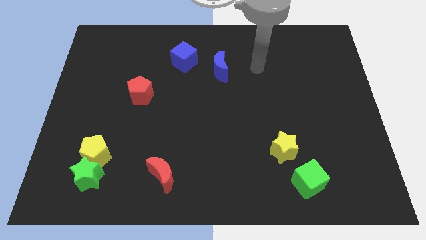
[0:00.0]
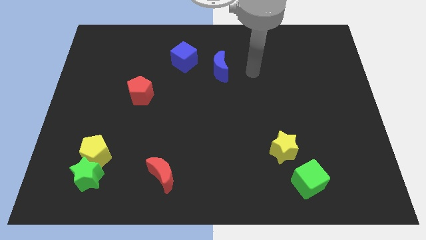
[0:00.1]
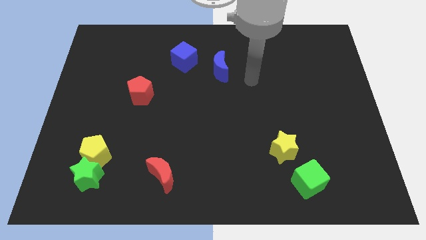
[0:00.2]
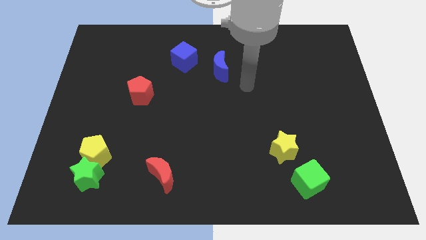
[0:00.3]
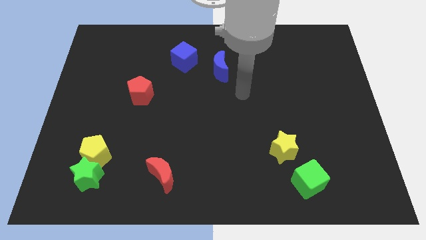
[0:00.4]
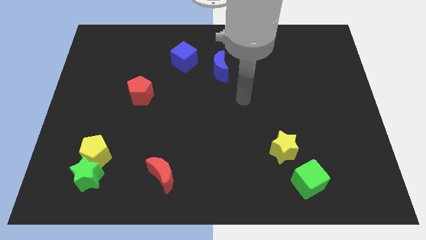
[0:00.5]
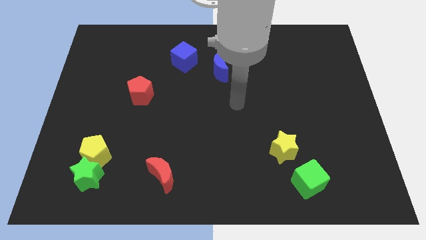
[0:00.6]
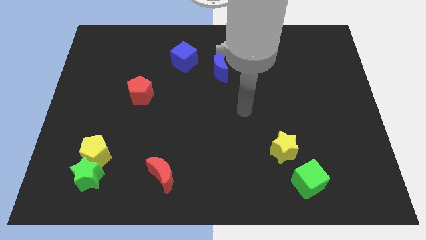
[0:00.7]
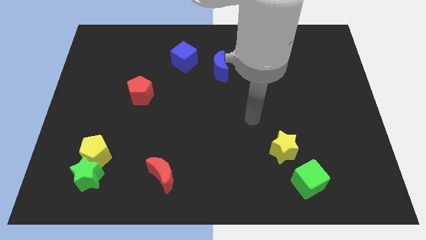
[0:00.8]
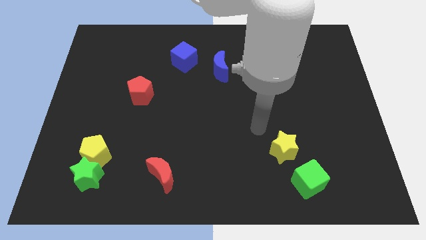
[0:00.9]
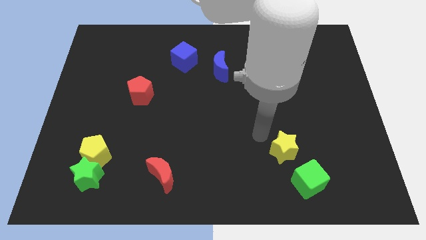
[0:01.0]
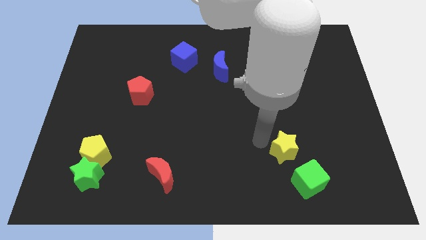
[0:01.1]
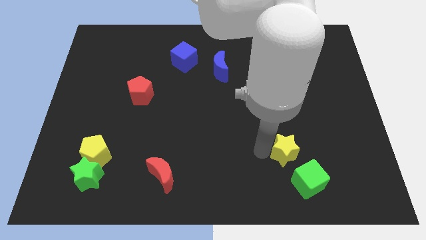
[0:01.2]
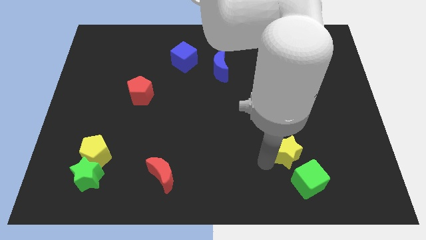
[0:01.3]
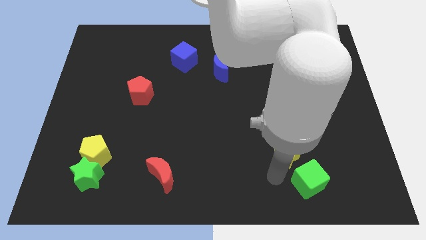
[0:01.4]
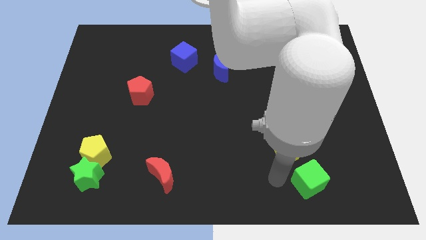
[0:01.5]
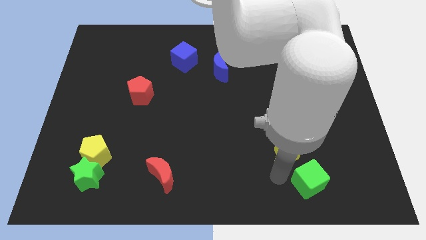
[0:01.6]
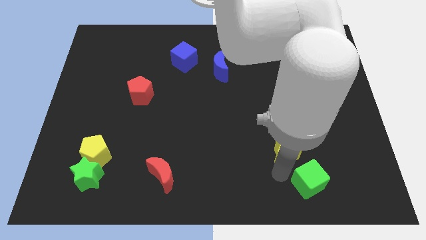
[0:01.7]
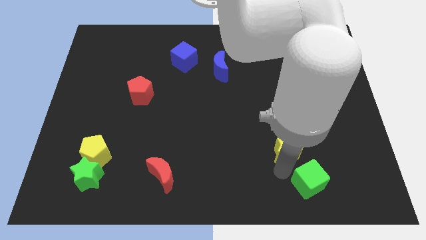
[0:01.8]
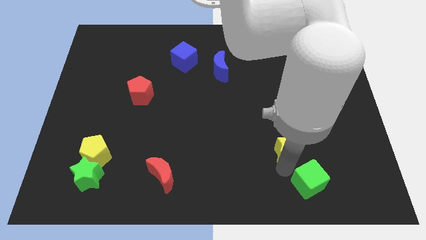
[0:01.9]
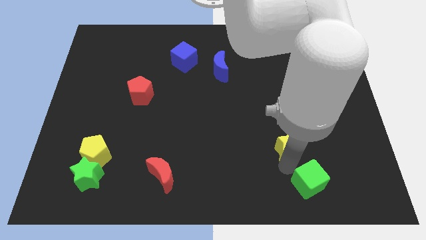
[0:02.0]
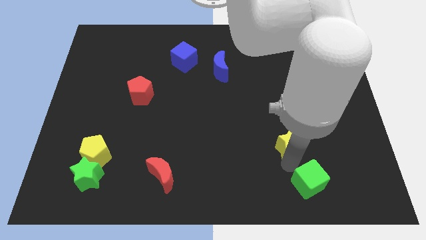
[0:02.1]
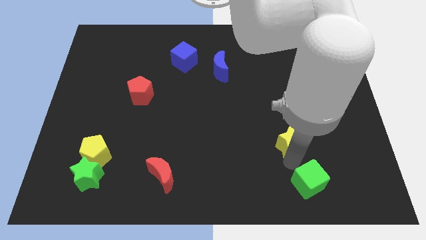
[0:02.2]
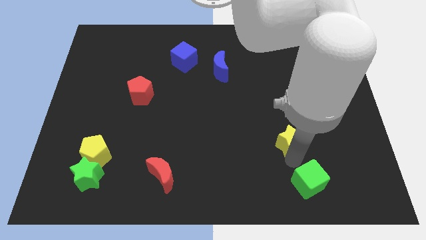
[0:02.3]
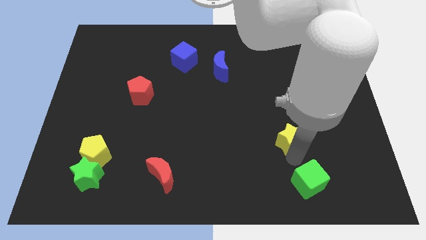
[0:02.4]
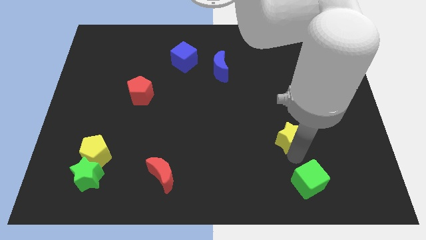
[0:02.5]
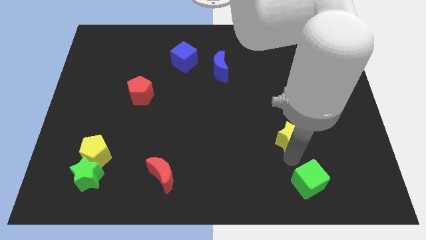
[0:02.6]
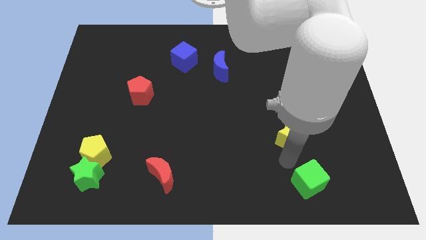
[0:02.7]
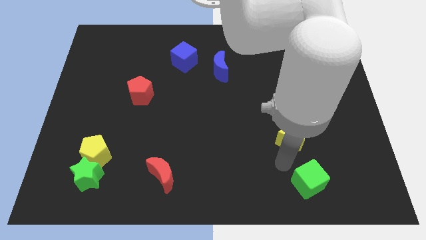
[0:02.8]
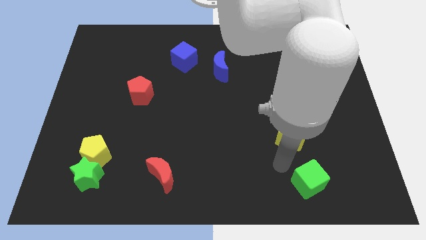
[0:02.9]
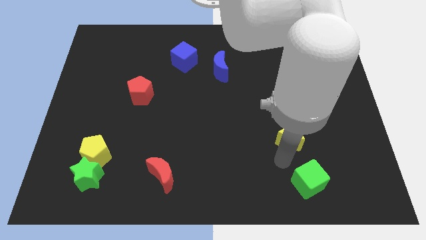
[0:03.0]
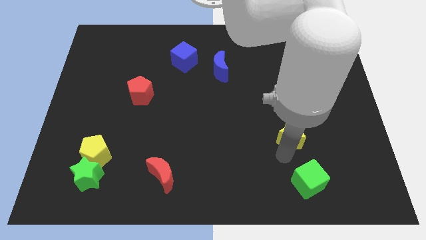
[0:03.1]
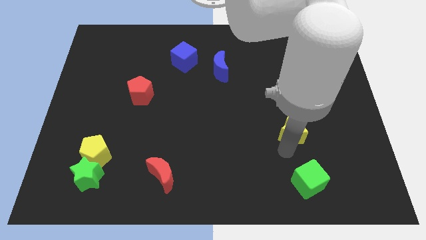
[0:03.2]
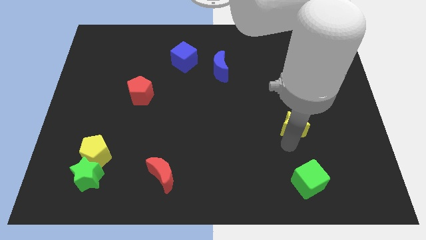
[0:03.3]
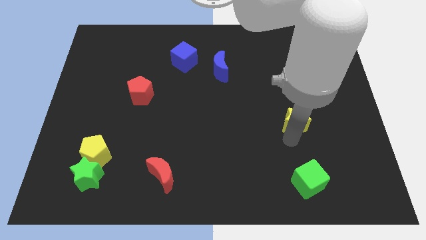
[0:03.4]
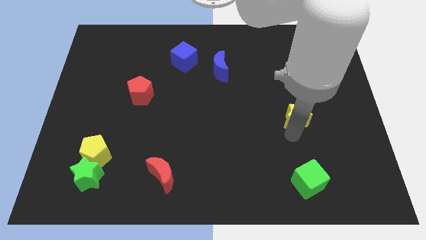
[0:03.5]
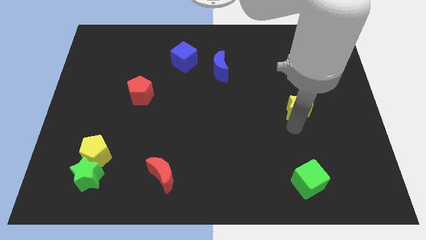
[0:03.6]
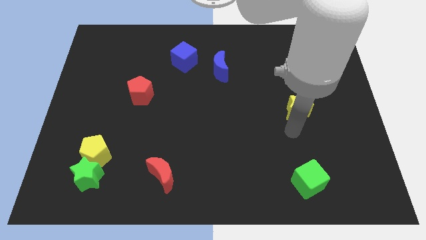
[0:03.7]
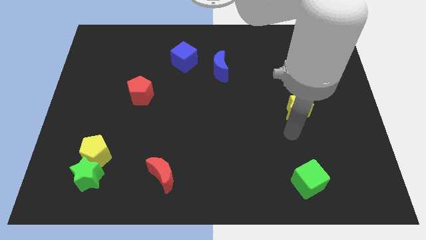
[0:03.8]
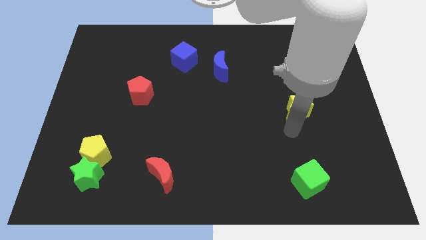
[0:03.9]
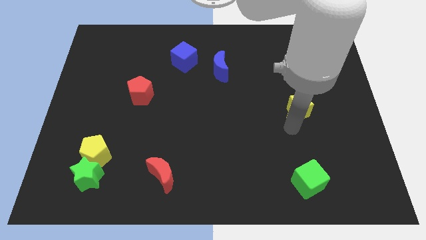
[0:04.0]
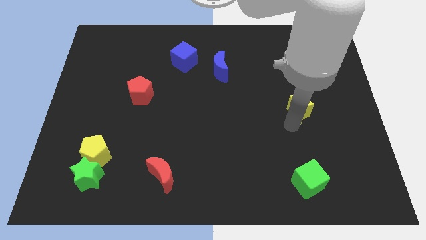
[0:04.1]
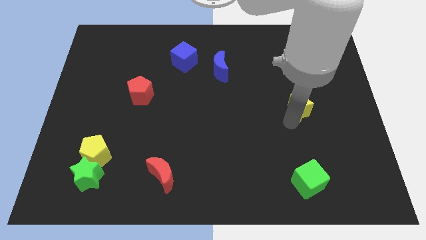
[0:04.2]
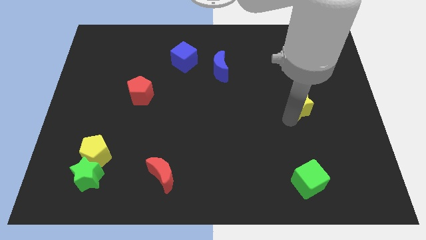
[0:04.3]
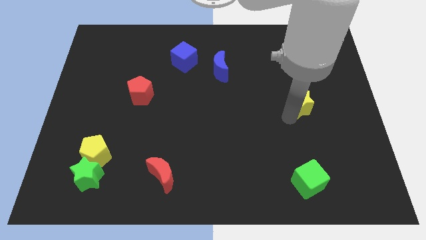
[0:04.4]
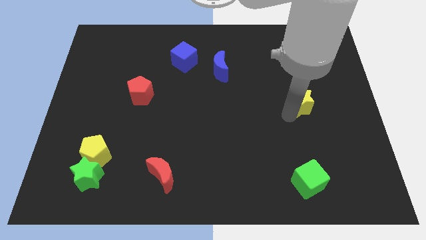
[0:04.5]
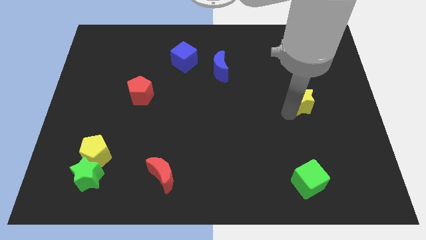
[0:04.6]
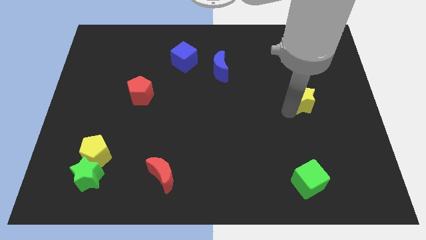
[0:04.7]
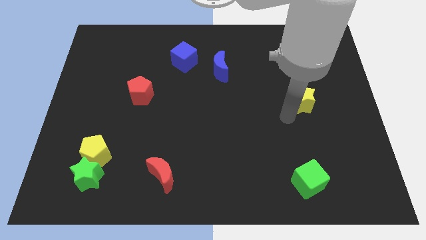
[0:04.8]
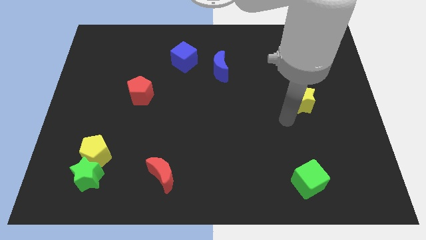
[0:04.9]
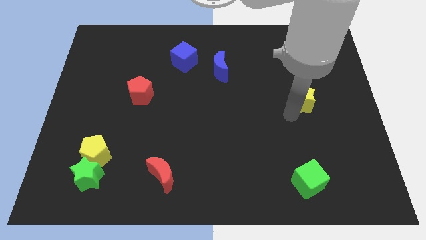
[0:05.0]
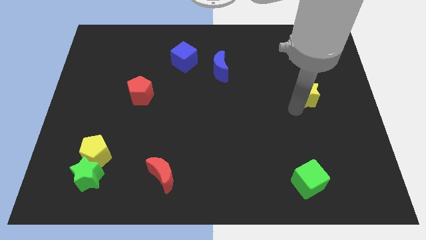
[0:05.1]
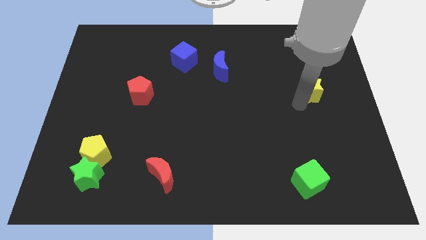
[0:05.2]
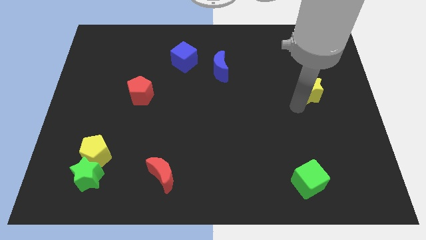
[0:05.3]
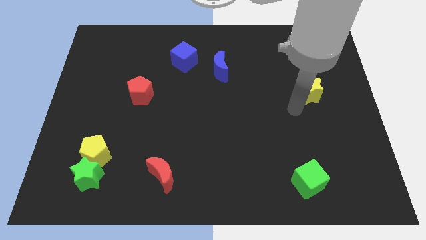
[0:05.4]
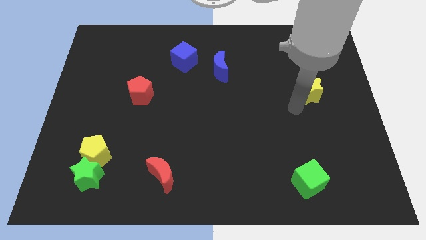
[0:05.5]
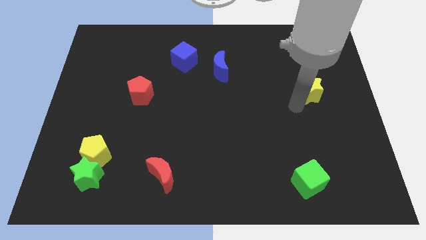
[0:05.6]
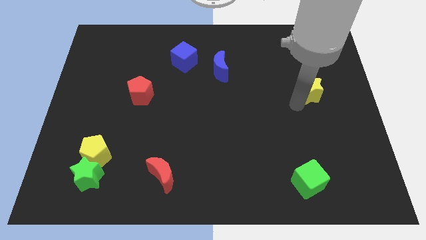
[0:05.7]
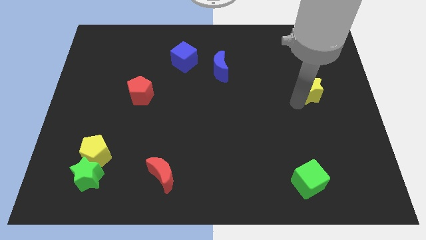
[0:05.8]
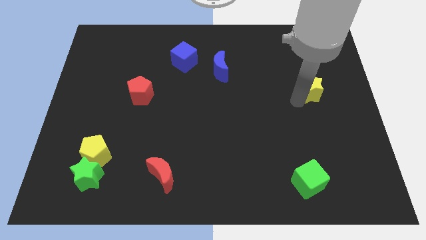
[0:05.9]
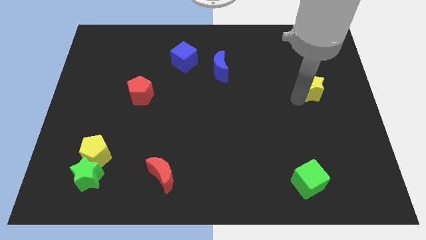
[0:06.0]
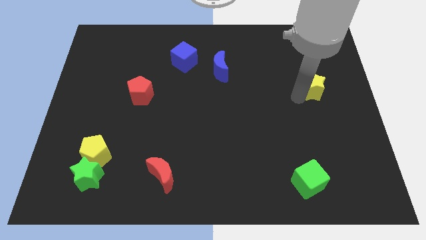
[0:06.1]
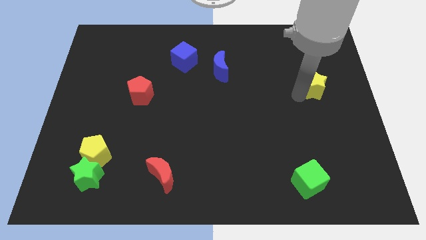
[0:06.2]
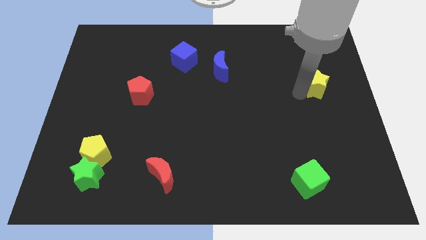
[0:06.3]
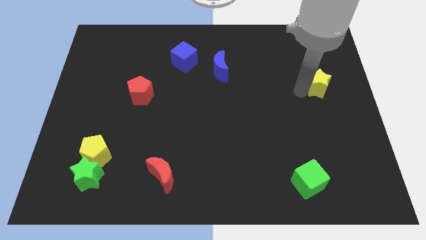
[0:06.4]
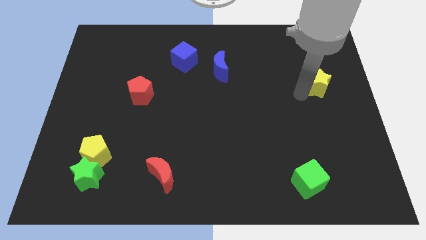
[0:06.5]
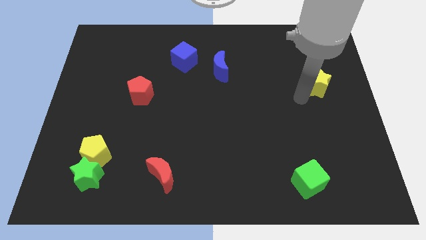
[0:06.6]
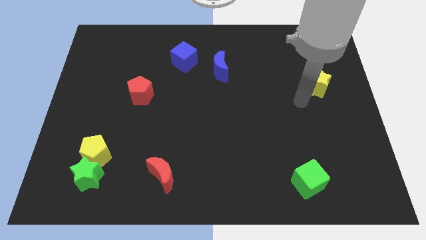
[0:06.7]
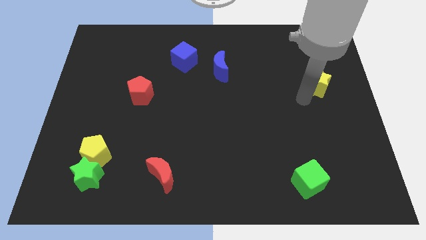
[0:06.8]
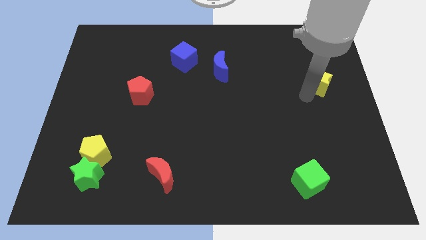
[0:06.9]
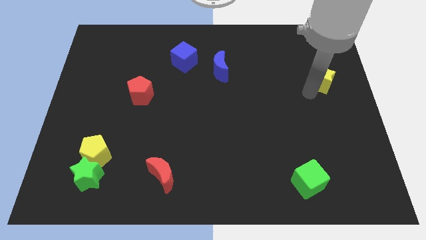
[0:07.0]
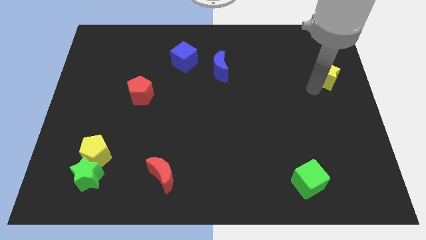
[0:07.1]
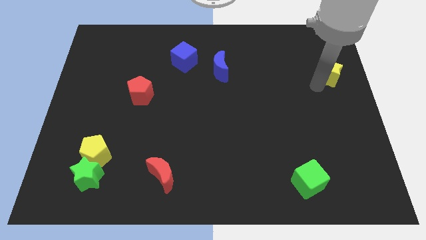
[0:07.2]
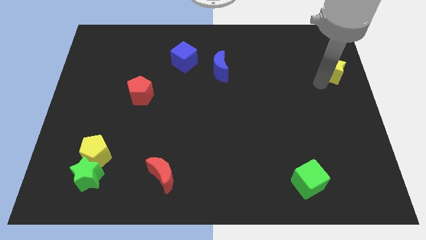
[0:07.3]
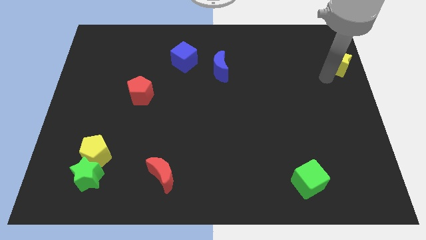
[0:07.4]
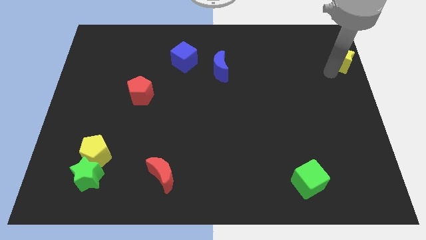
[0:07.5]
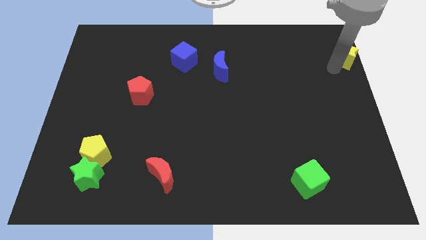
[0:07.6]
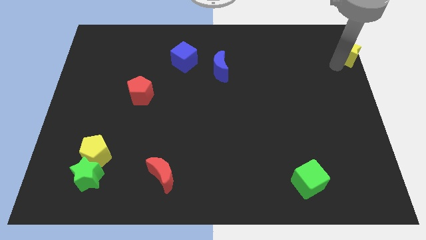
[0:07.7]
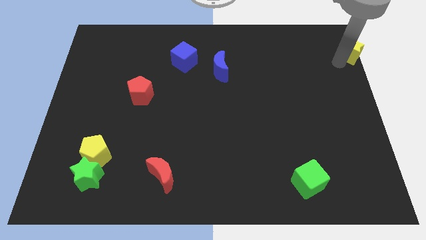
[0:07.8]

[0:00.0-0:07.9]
push the yellow star to the upper right corner
